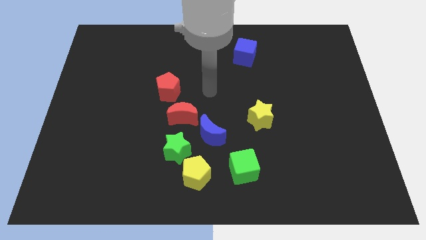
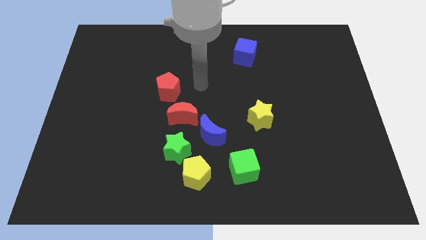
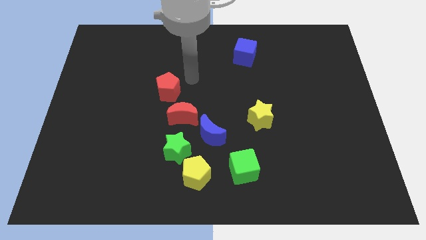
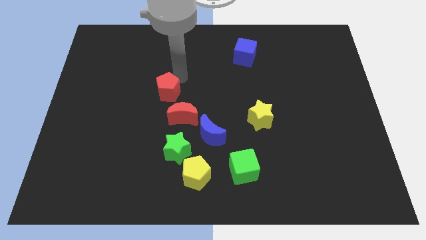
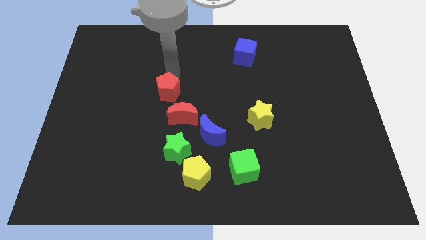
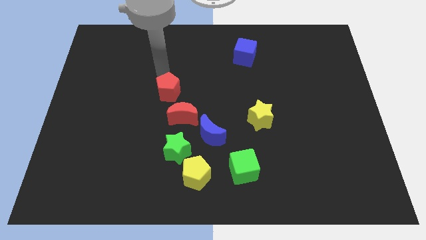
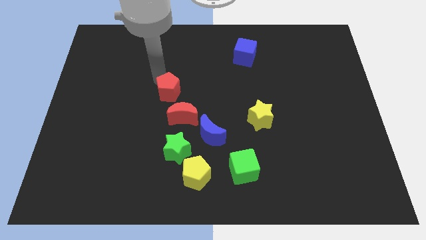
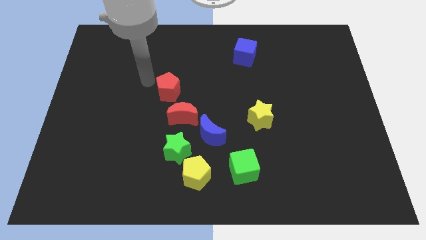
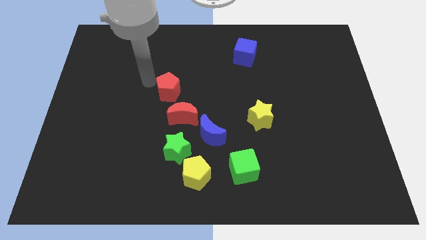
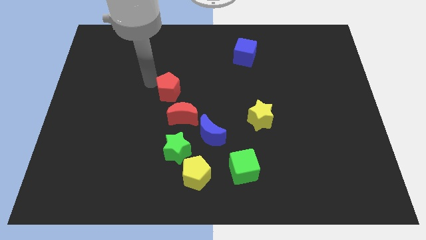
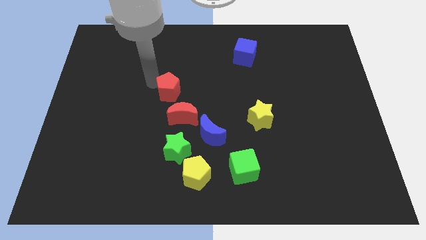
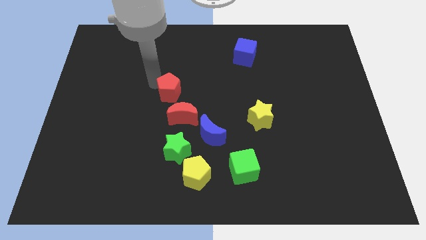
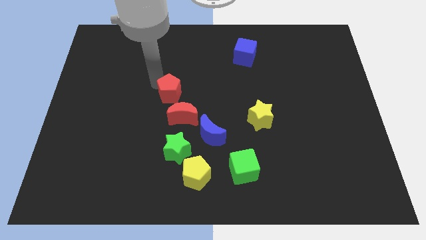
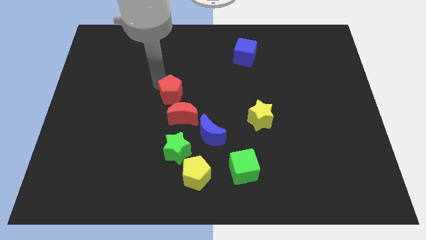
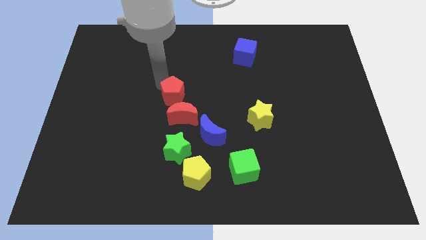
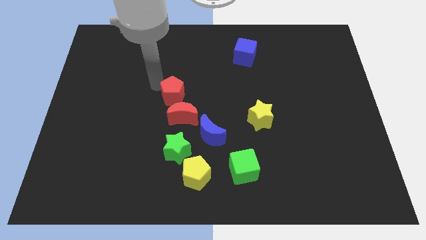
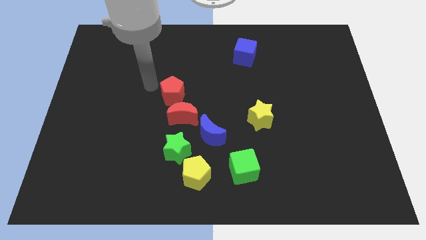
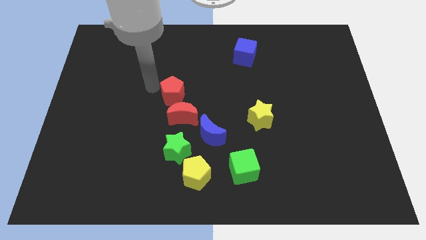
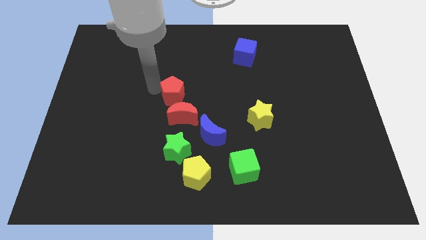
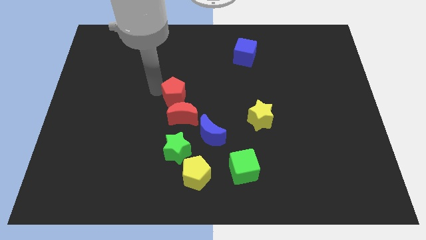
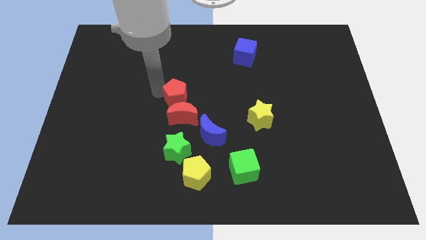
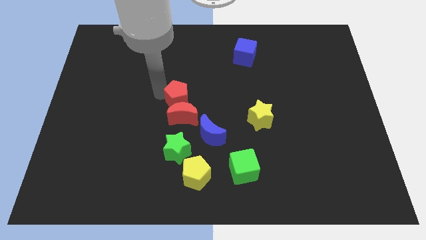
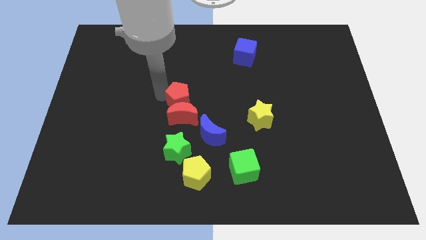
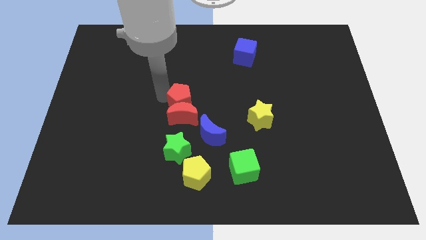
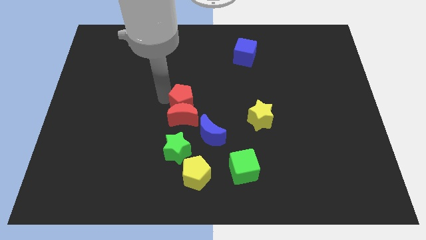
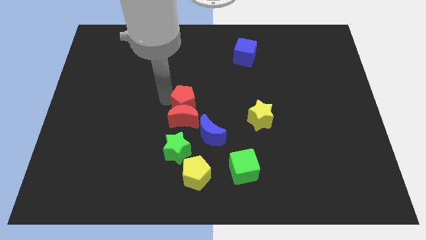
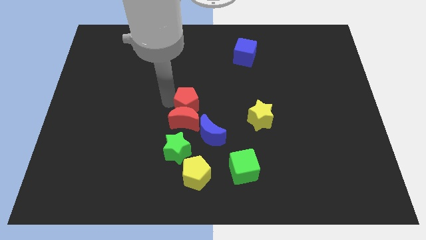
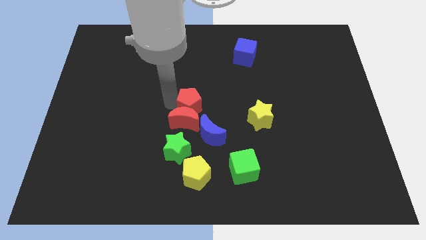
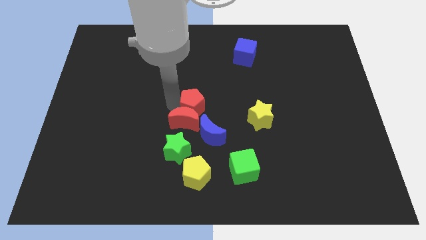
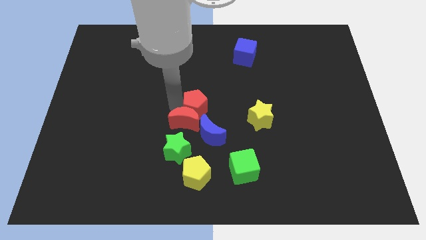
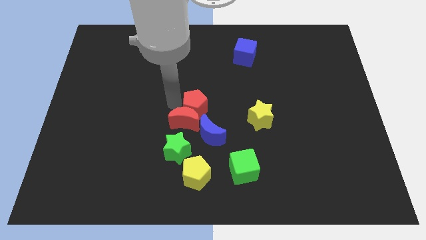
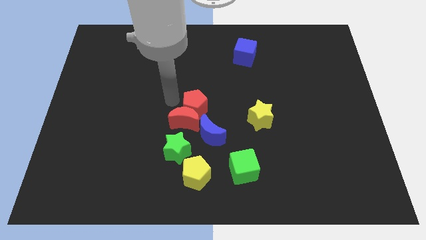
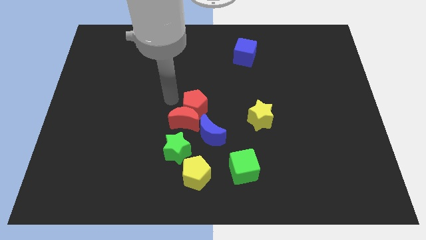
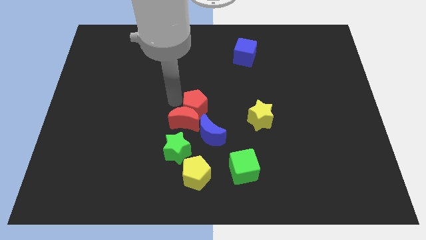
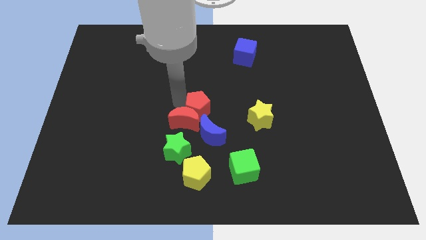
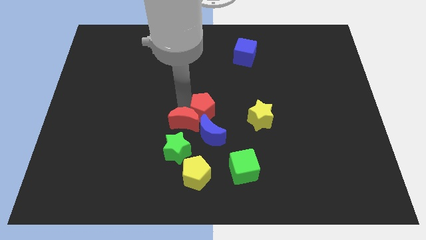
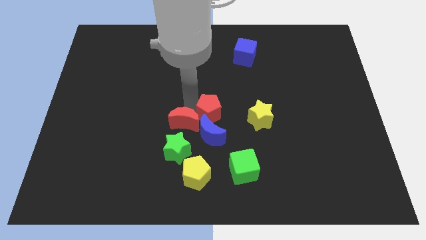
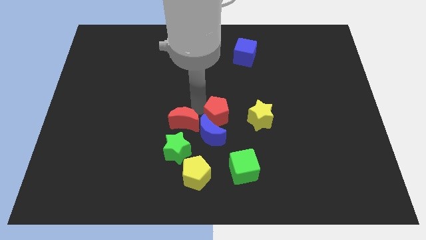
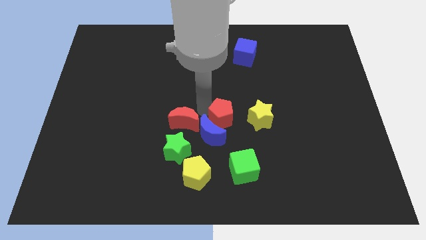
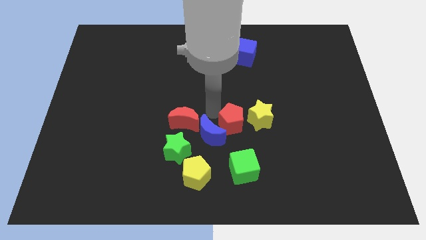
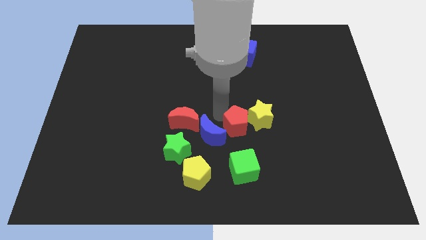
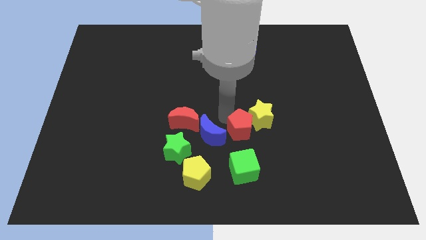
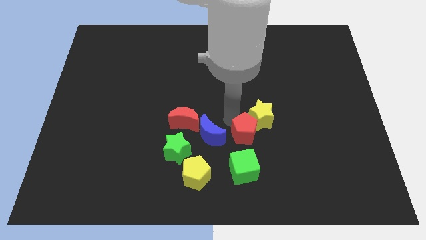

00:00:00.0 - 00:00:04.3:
slide the red pentagon down and to the right

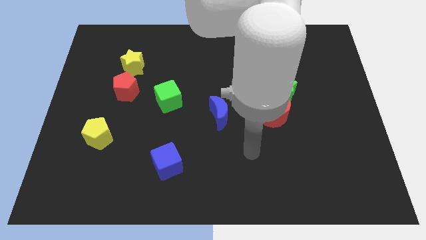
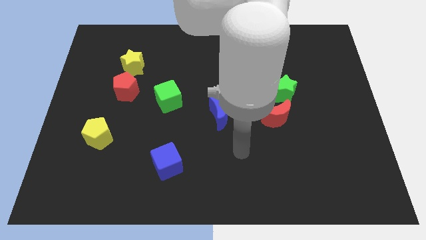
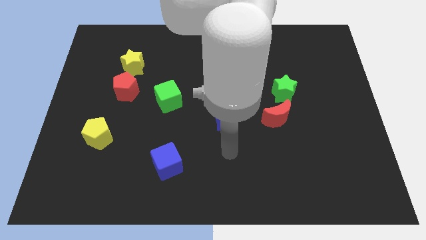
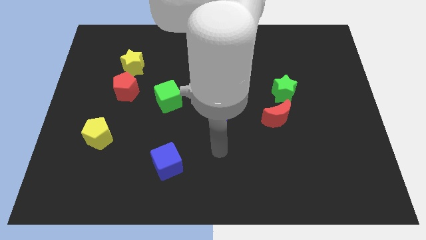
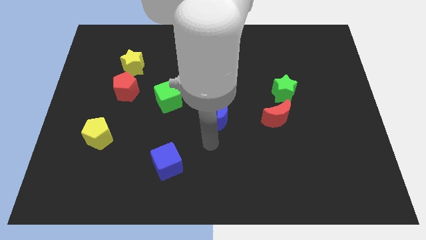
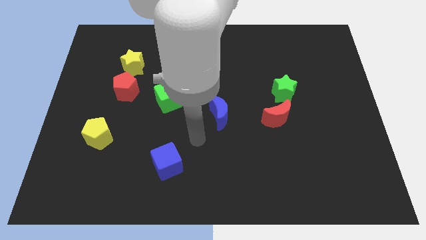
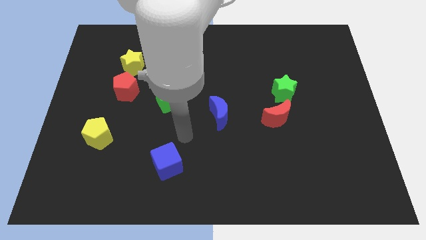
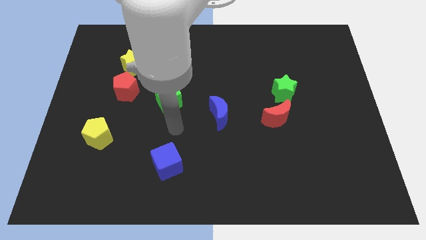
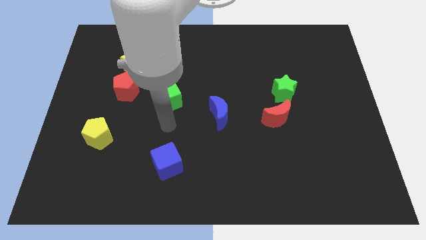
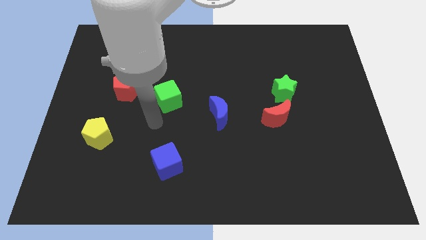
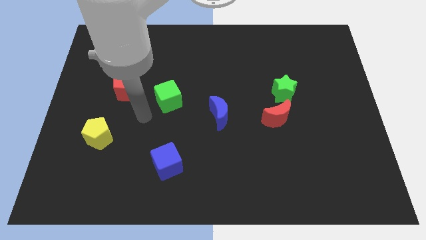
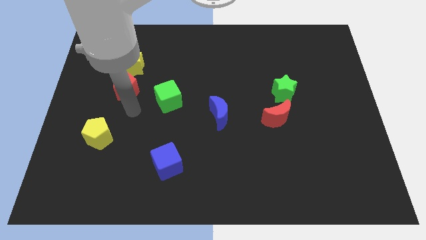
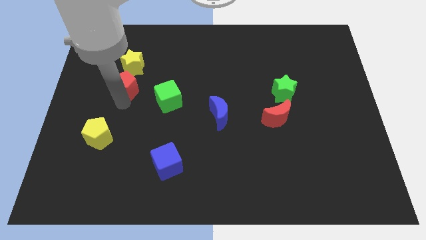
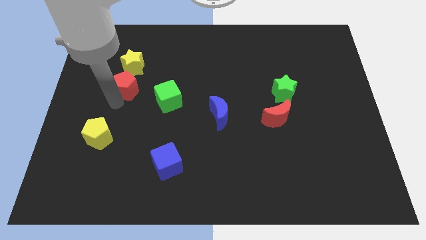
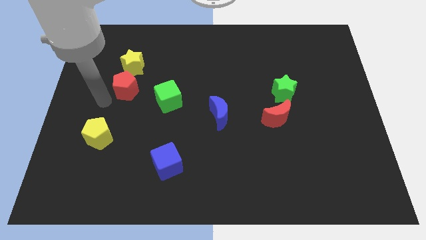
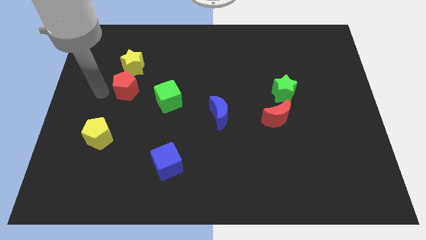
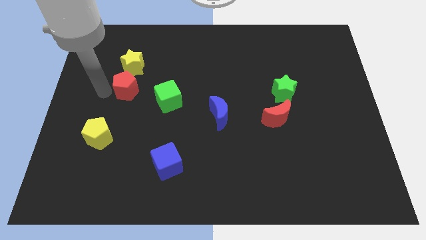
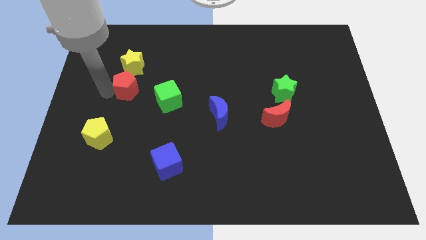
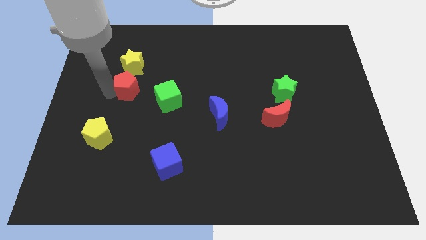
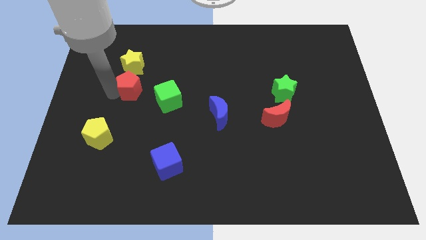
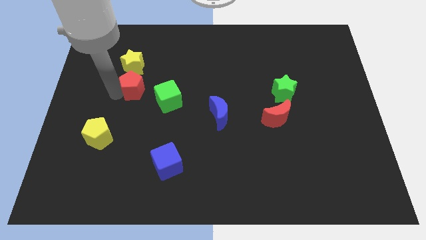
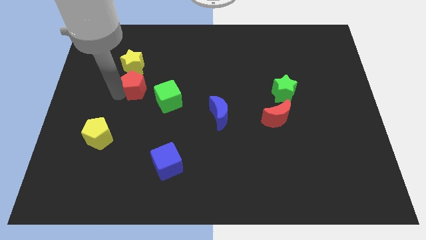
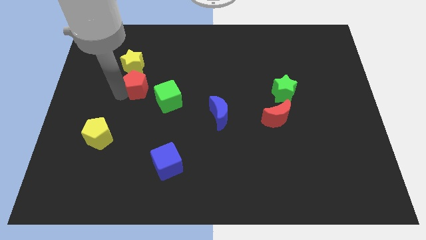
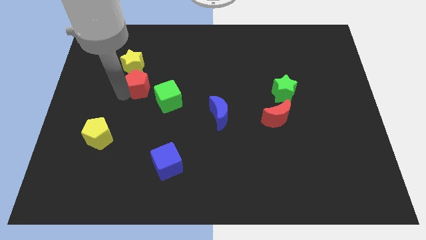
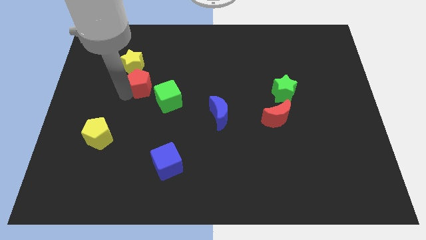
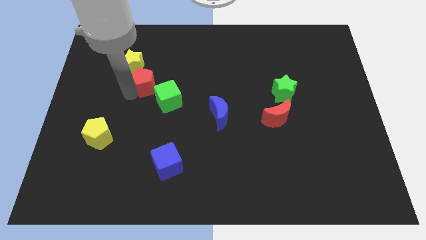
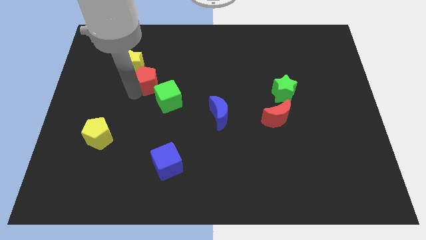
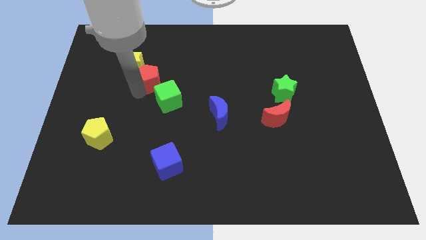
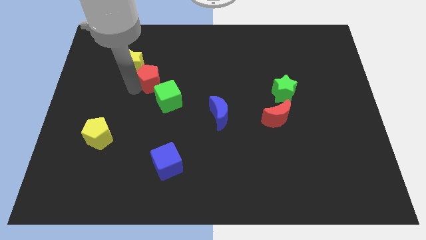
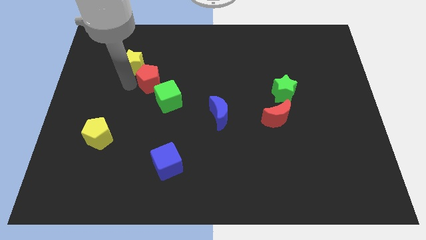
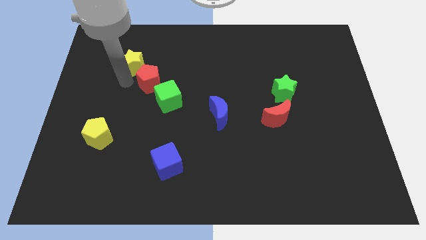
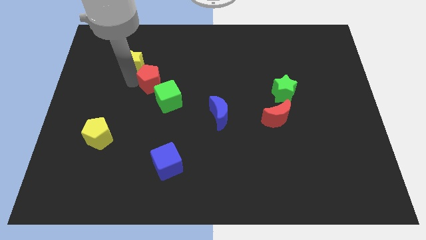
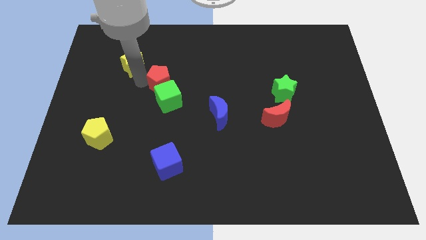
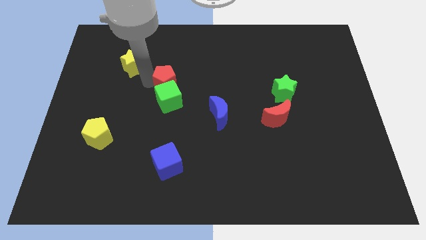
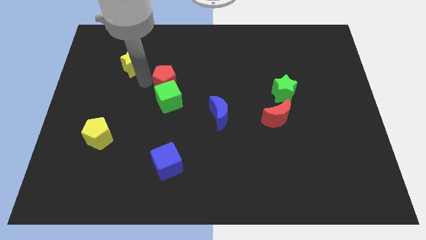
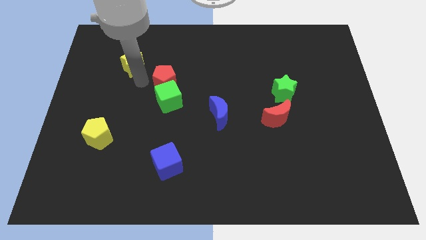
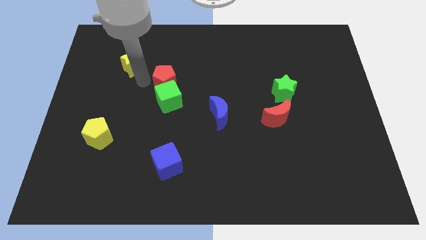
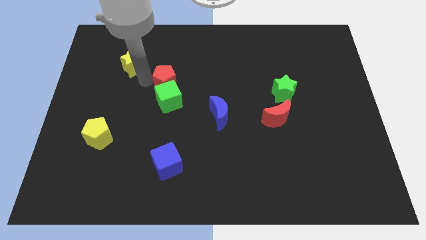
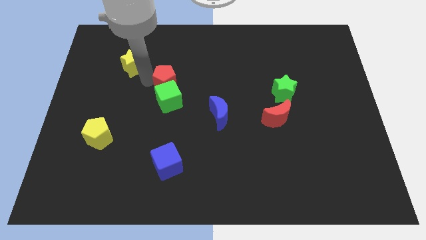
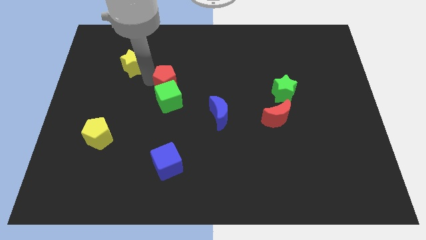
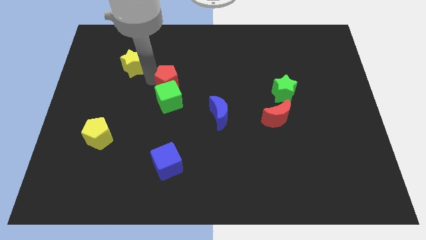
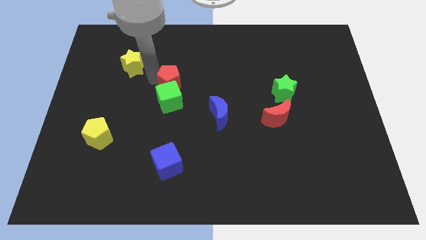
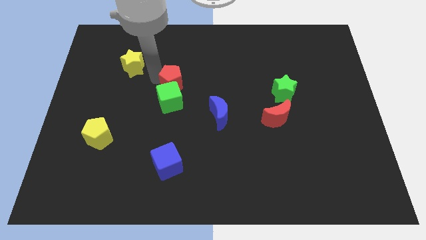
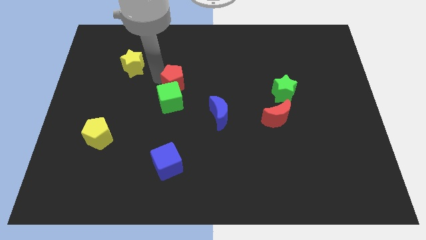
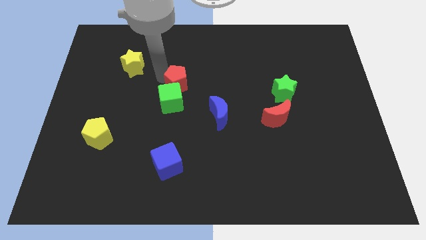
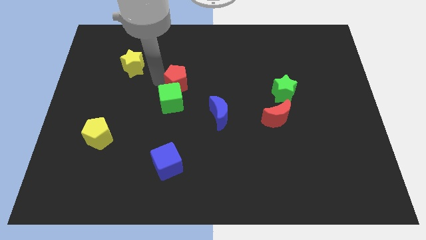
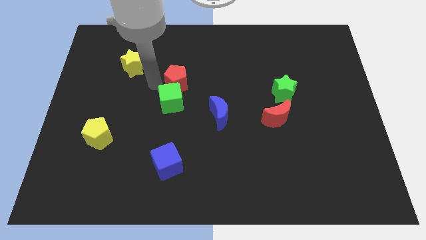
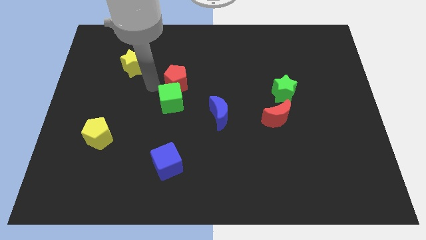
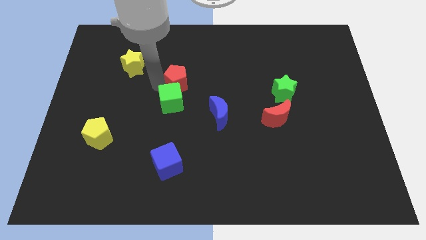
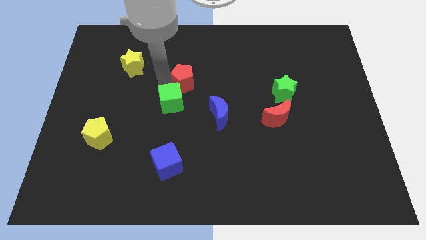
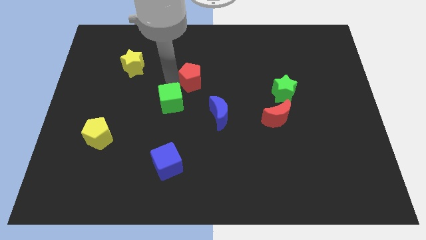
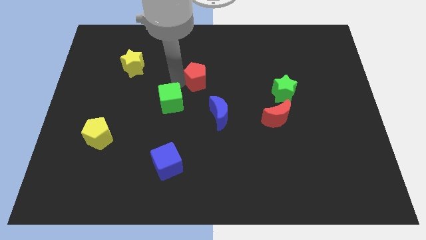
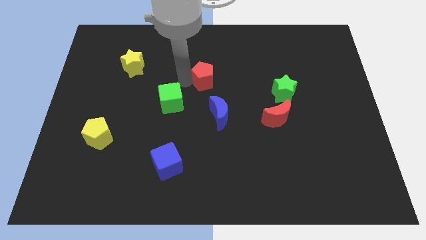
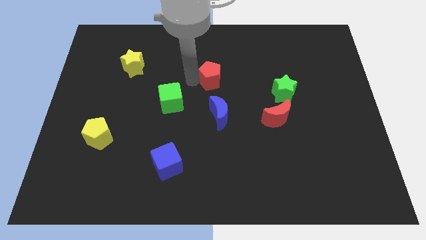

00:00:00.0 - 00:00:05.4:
slide the red pentagon right
